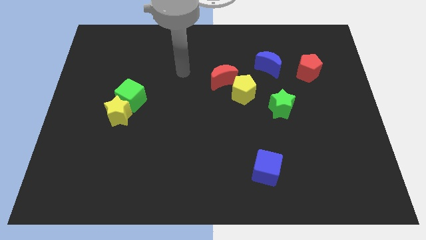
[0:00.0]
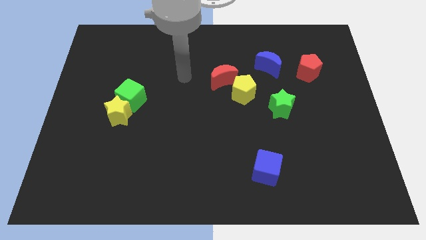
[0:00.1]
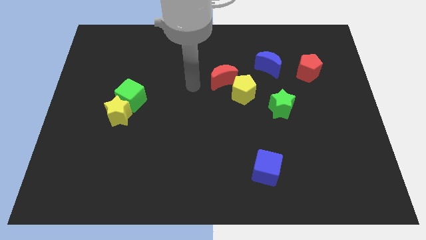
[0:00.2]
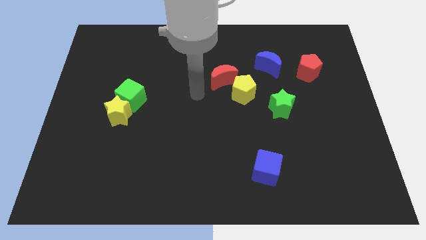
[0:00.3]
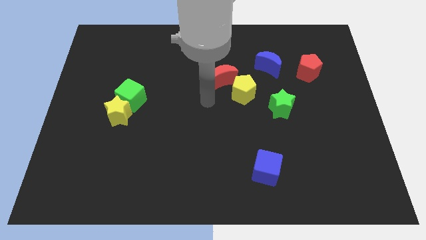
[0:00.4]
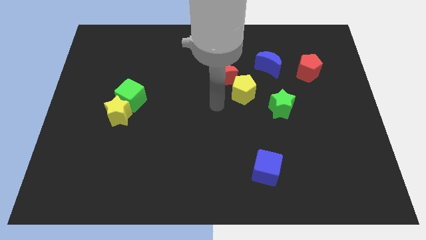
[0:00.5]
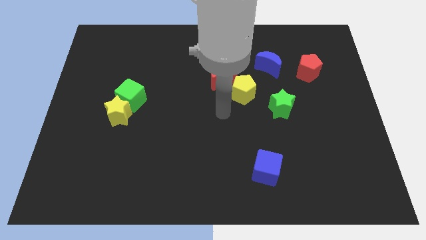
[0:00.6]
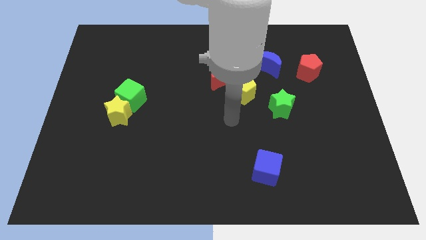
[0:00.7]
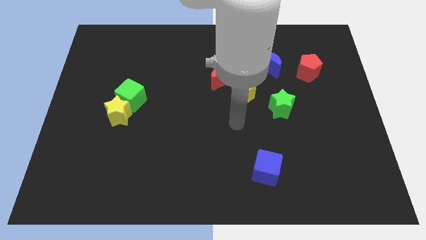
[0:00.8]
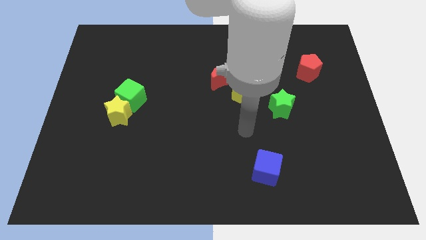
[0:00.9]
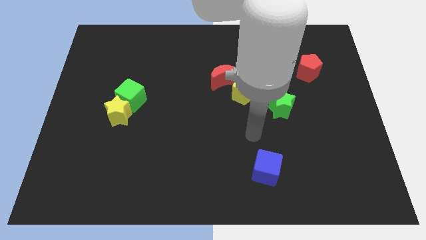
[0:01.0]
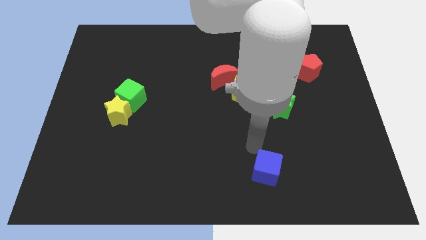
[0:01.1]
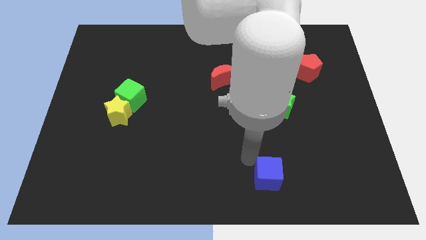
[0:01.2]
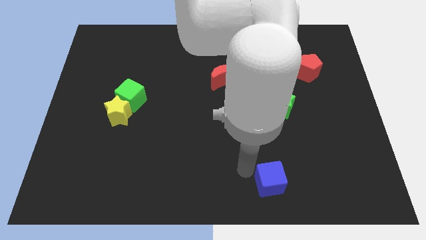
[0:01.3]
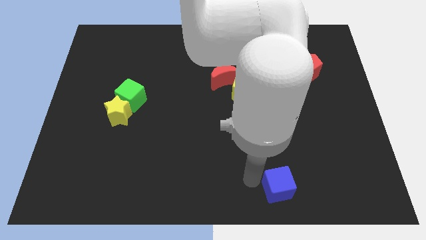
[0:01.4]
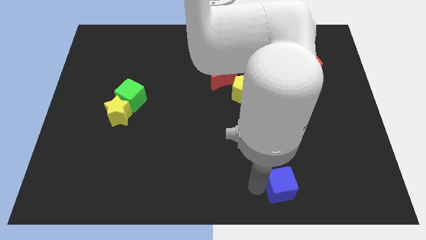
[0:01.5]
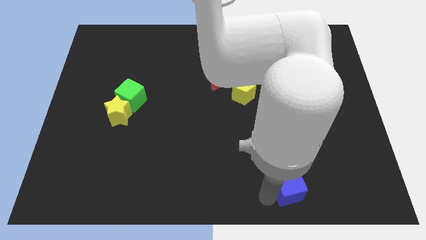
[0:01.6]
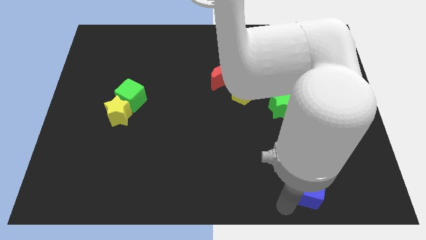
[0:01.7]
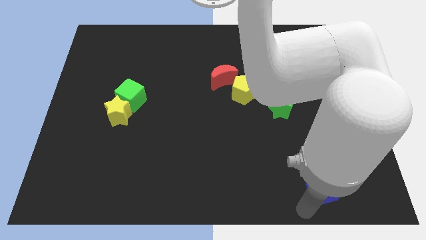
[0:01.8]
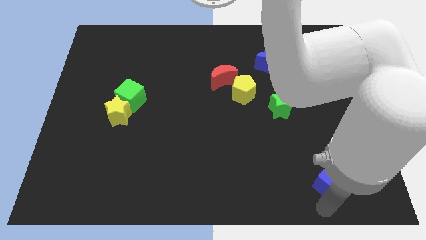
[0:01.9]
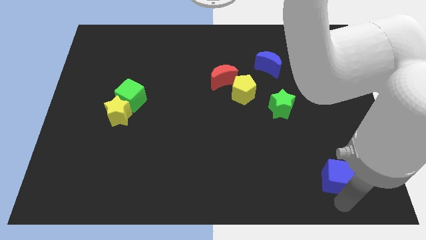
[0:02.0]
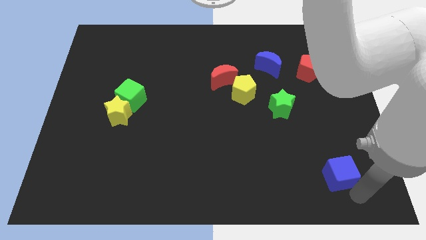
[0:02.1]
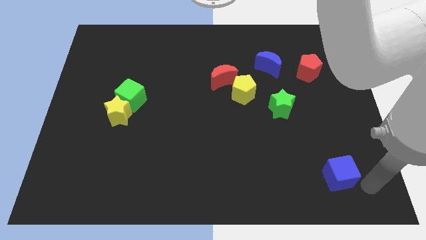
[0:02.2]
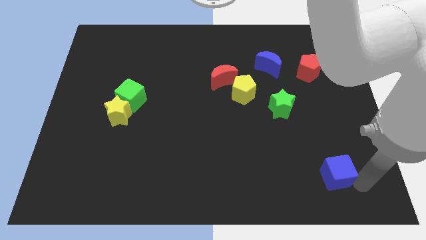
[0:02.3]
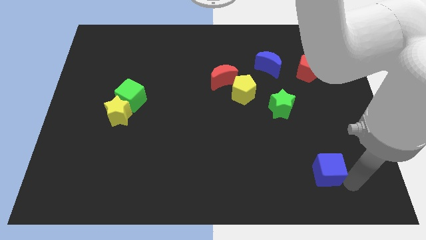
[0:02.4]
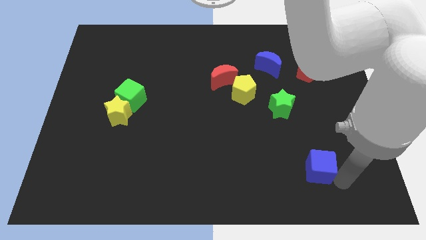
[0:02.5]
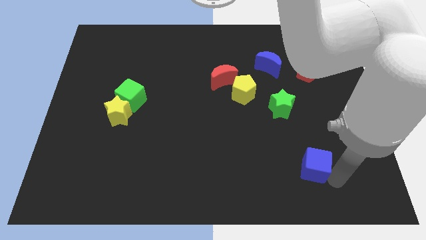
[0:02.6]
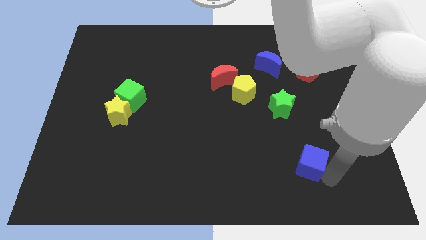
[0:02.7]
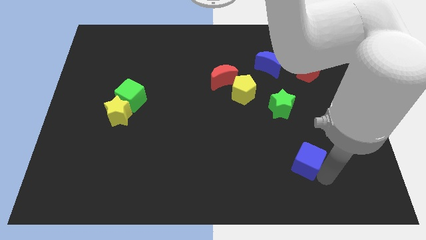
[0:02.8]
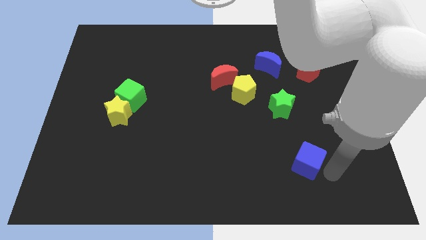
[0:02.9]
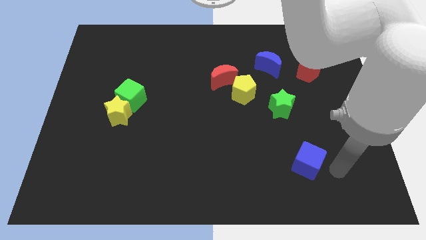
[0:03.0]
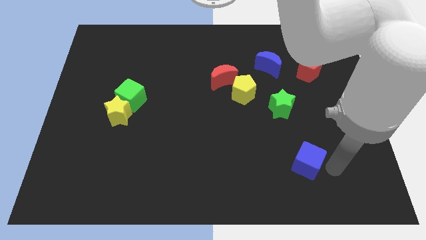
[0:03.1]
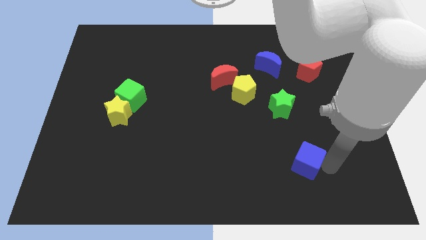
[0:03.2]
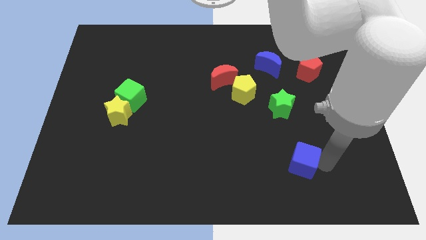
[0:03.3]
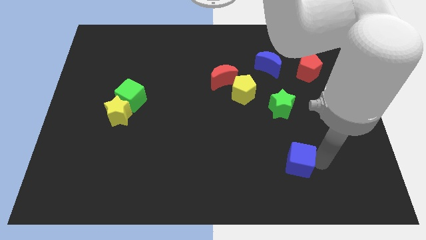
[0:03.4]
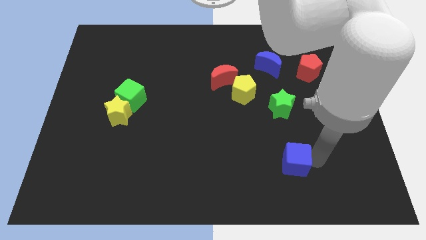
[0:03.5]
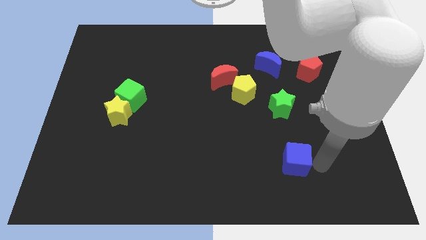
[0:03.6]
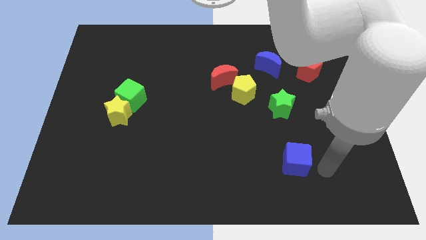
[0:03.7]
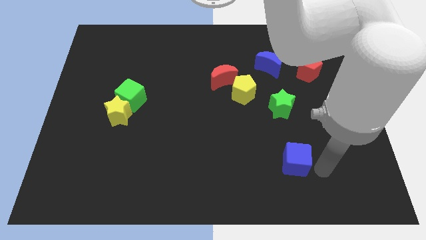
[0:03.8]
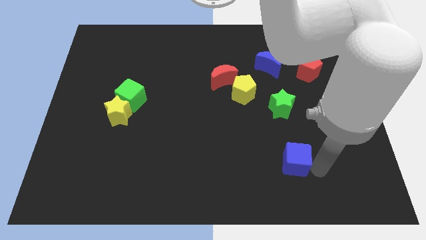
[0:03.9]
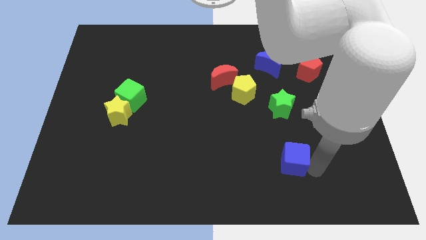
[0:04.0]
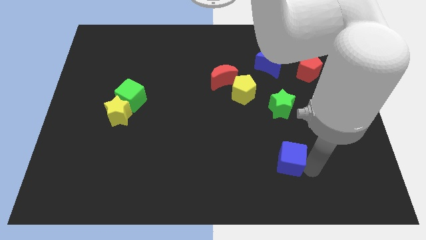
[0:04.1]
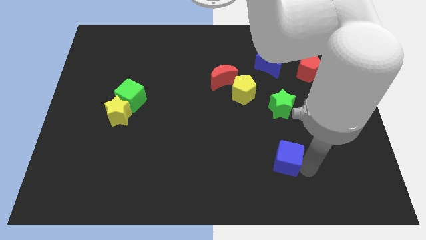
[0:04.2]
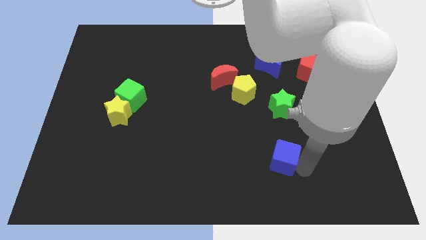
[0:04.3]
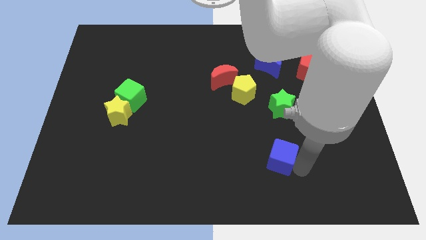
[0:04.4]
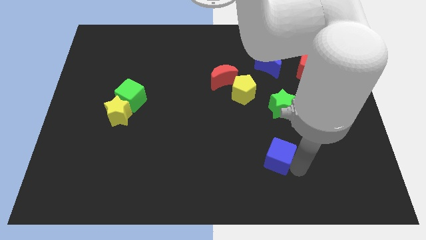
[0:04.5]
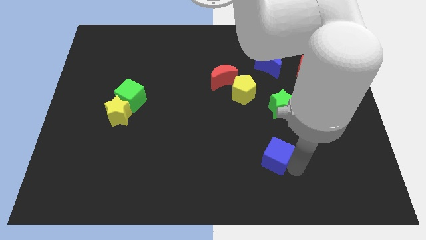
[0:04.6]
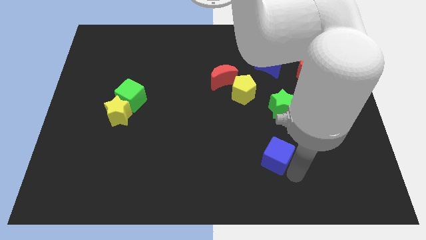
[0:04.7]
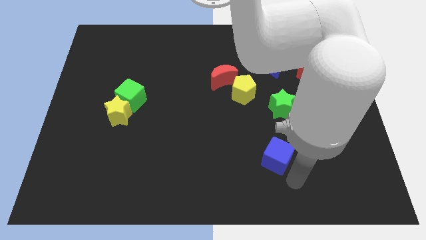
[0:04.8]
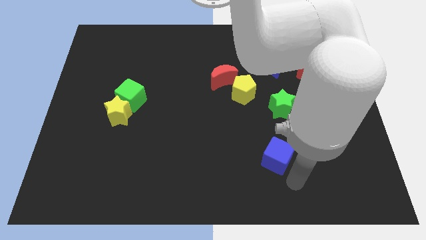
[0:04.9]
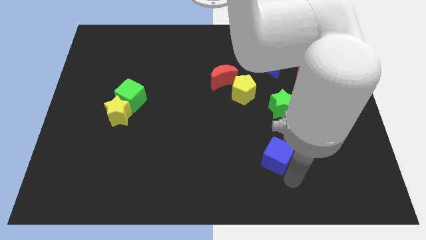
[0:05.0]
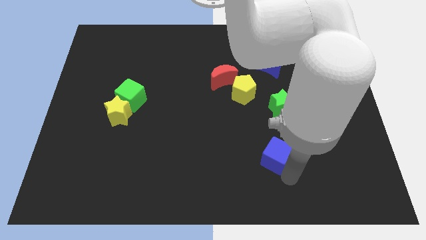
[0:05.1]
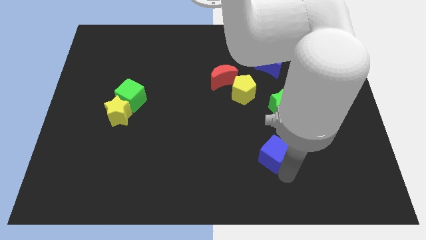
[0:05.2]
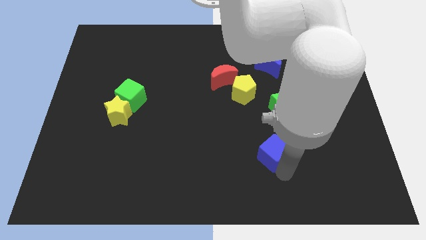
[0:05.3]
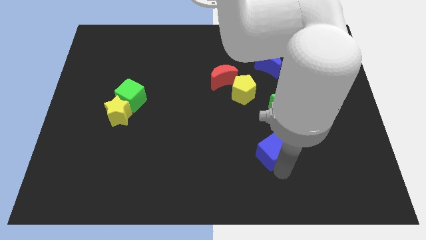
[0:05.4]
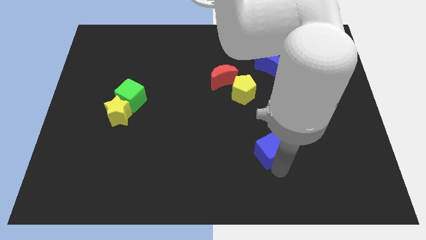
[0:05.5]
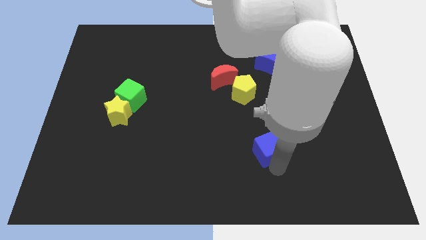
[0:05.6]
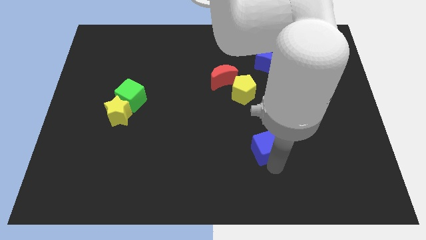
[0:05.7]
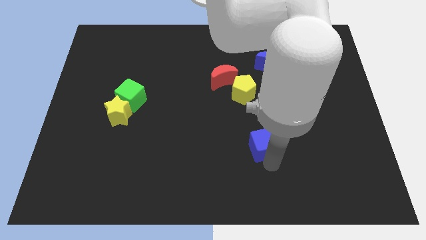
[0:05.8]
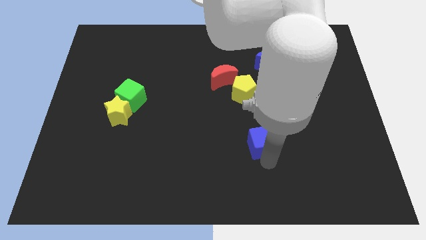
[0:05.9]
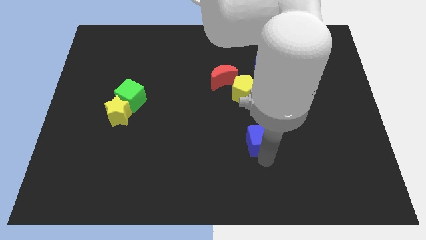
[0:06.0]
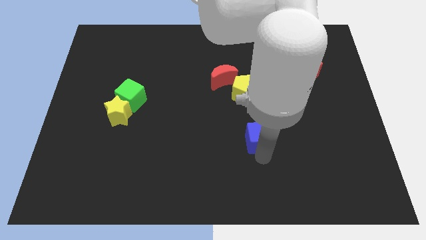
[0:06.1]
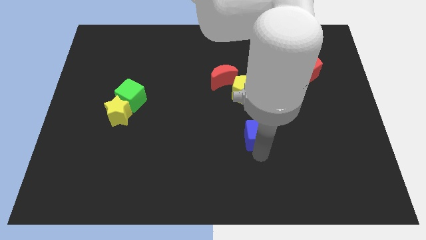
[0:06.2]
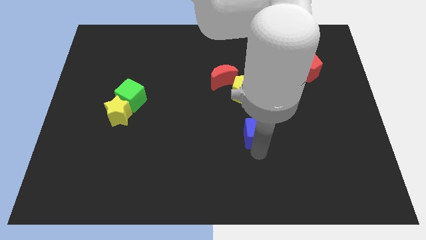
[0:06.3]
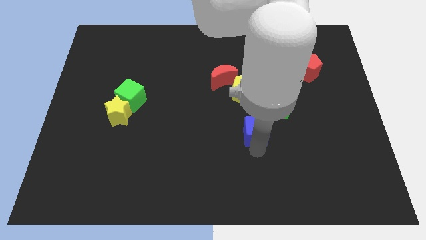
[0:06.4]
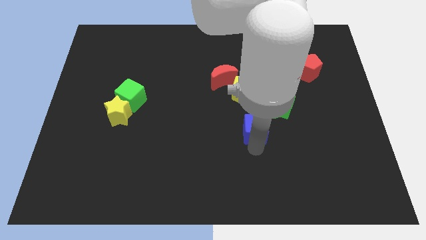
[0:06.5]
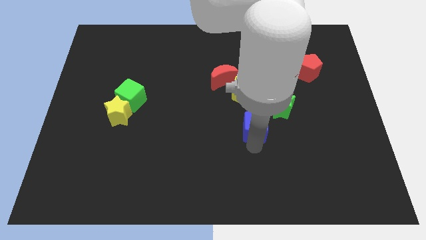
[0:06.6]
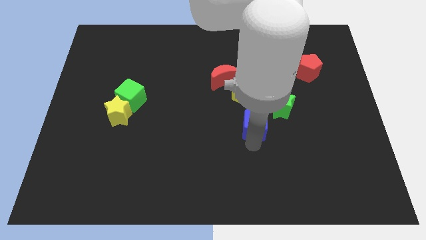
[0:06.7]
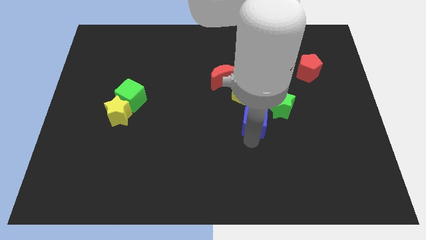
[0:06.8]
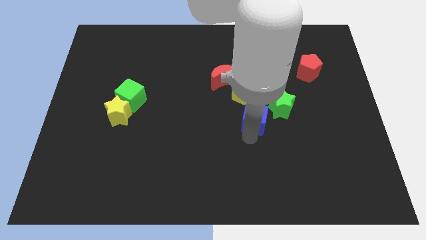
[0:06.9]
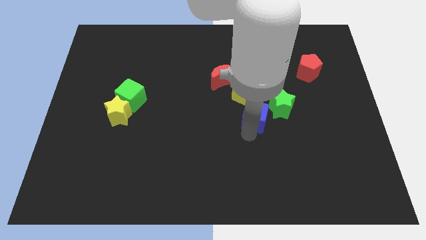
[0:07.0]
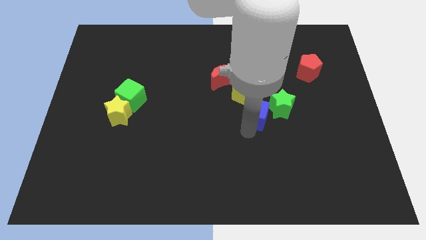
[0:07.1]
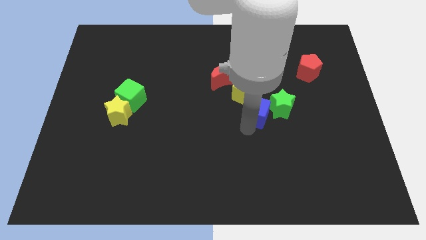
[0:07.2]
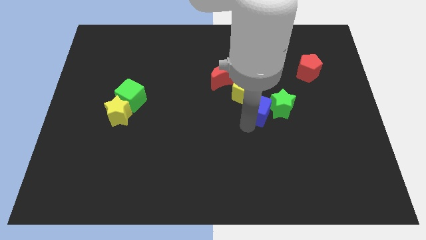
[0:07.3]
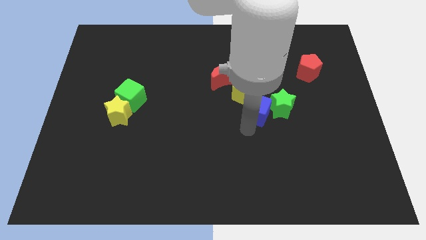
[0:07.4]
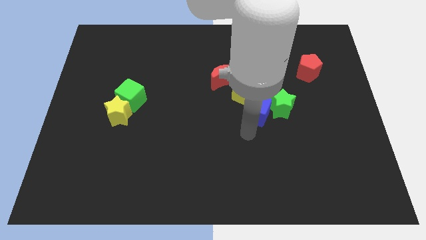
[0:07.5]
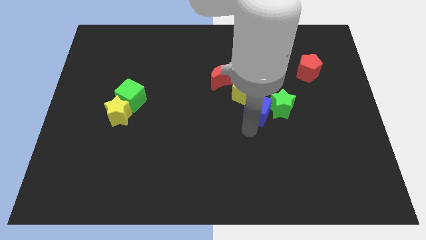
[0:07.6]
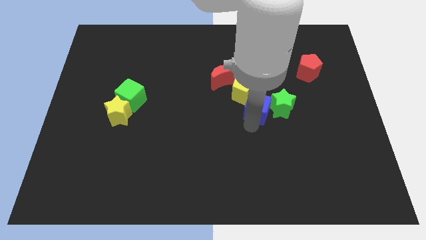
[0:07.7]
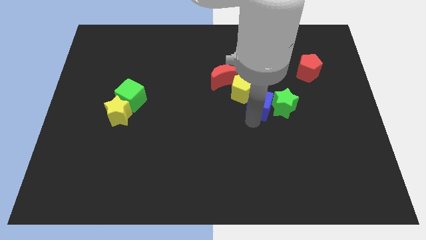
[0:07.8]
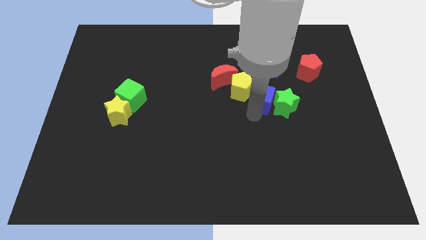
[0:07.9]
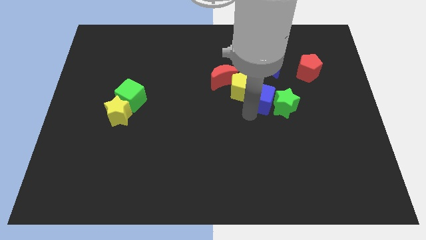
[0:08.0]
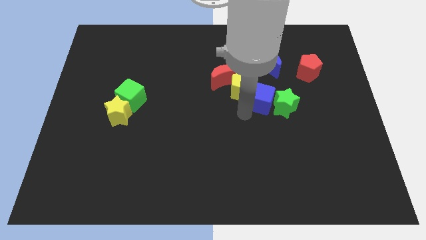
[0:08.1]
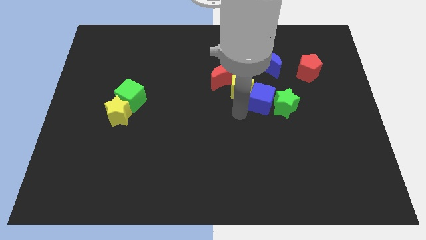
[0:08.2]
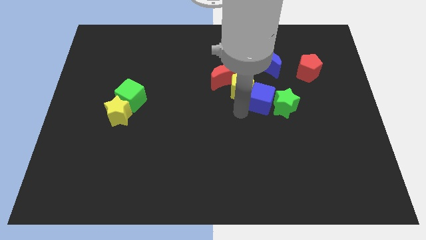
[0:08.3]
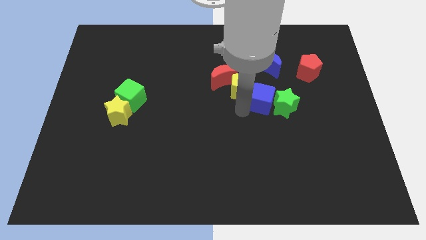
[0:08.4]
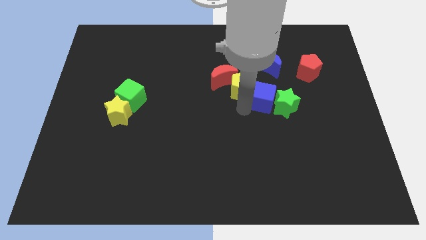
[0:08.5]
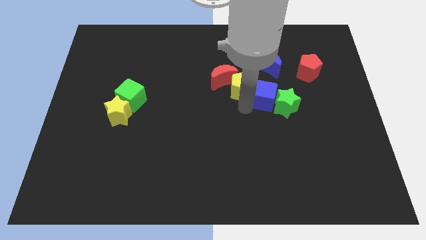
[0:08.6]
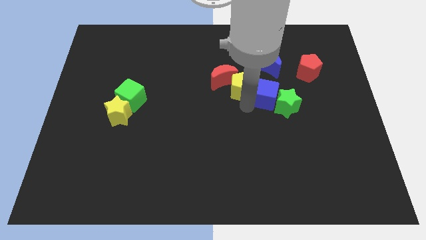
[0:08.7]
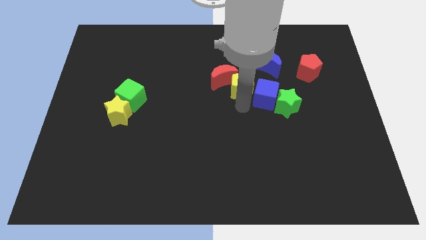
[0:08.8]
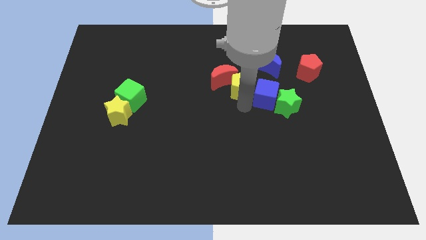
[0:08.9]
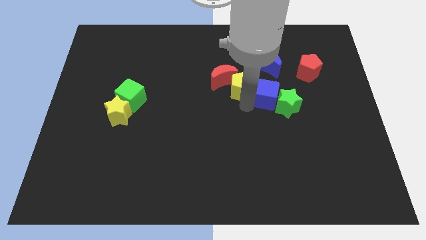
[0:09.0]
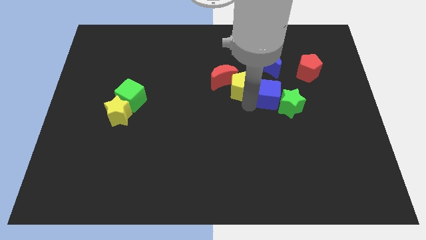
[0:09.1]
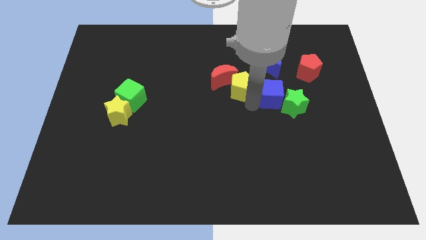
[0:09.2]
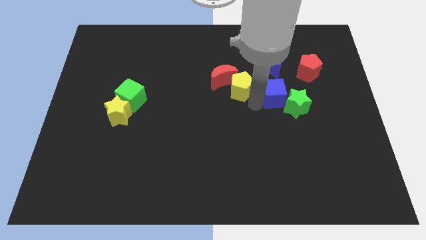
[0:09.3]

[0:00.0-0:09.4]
move the blue cube diagonally down and to the left of the red pentagon
